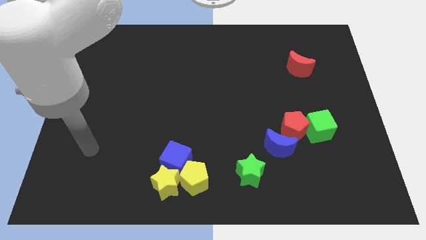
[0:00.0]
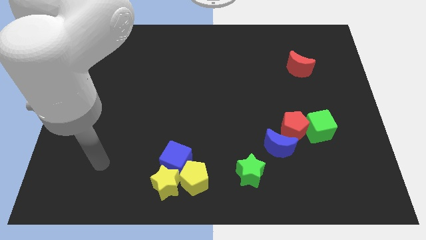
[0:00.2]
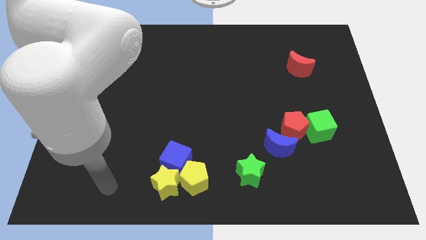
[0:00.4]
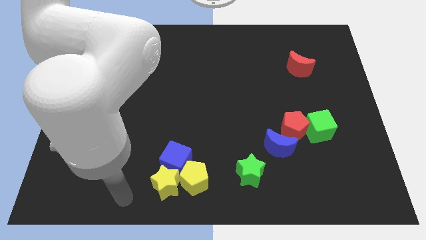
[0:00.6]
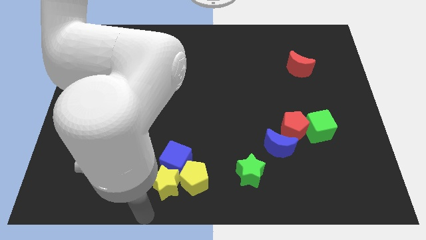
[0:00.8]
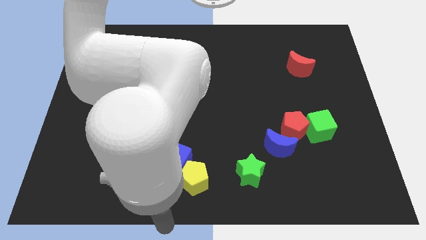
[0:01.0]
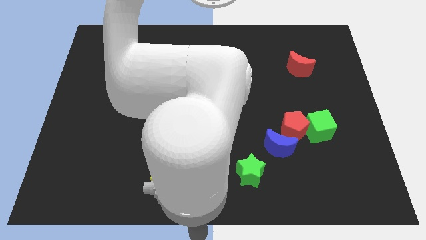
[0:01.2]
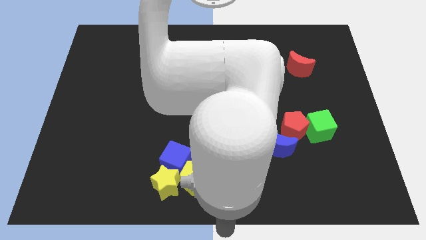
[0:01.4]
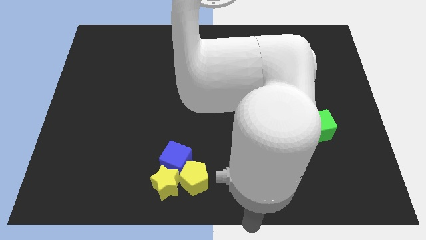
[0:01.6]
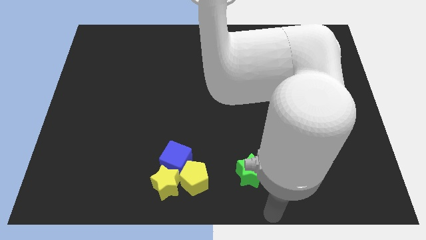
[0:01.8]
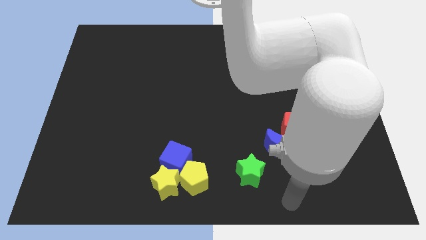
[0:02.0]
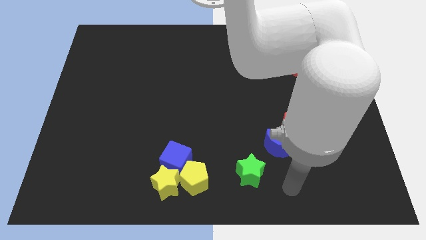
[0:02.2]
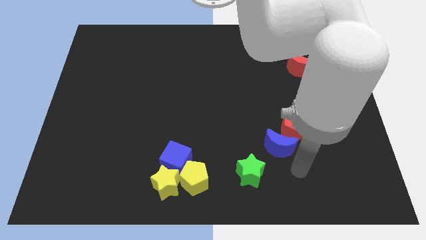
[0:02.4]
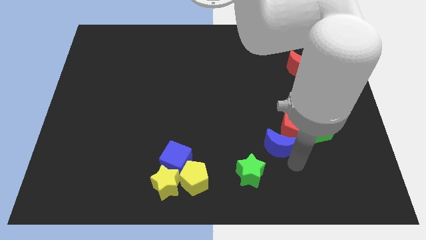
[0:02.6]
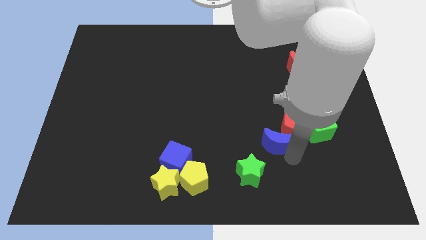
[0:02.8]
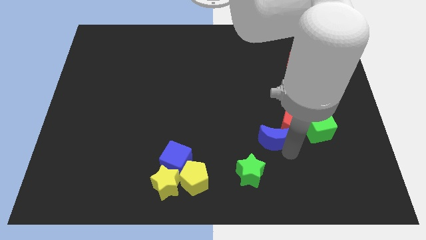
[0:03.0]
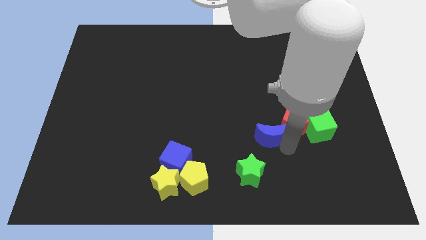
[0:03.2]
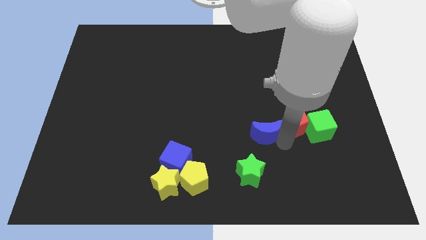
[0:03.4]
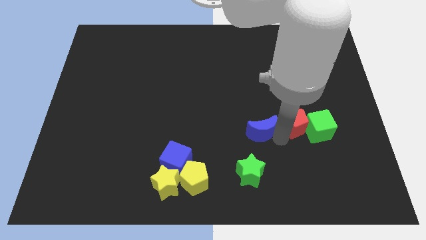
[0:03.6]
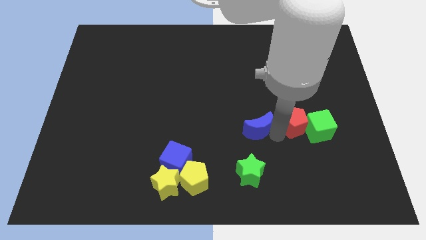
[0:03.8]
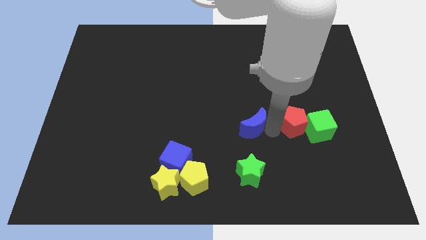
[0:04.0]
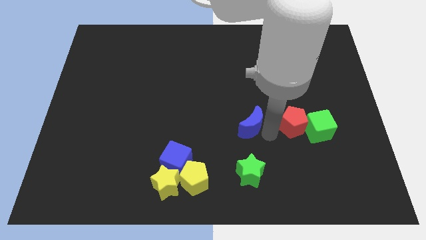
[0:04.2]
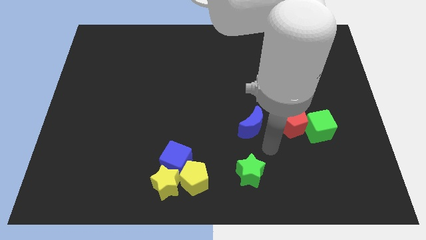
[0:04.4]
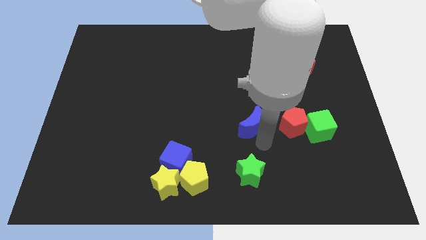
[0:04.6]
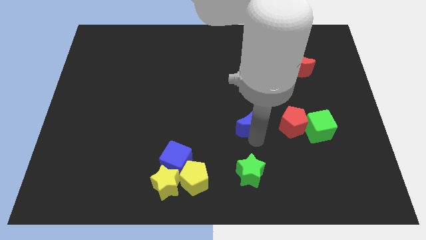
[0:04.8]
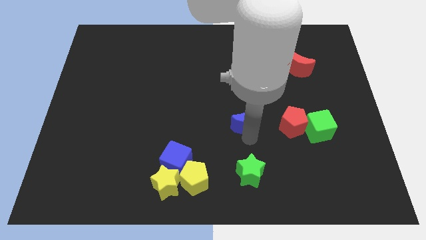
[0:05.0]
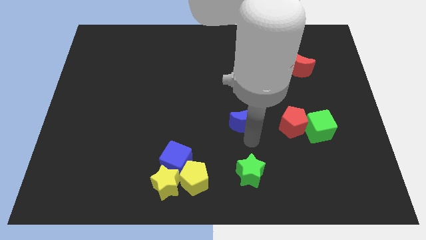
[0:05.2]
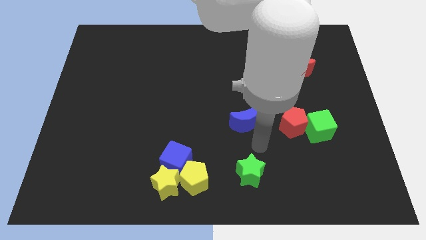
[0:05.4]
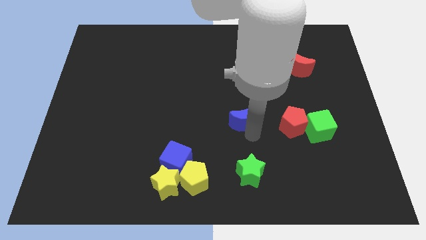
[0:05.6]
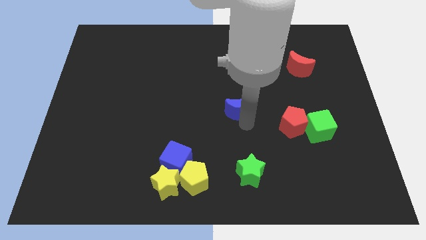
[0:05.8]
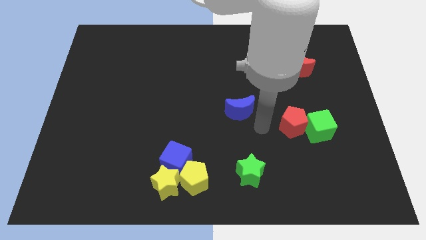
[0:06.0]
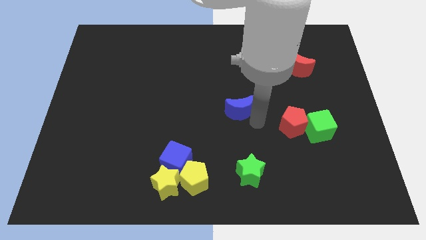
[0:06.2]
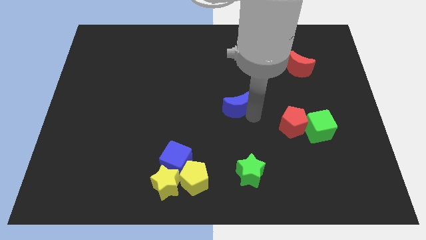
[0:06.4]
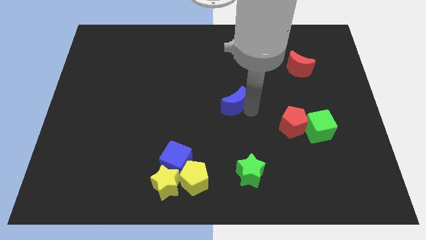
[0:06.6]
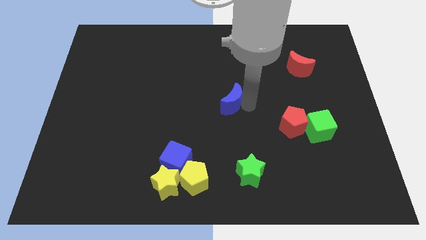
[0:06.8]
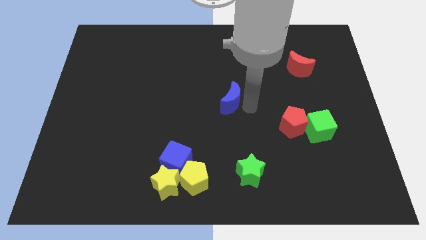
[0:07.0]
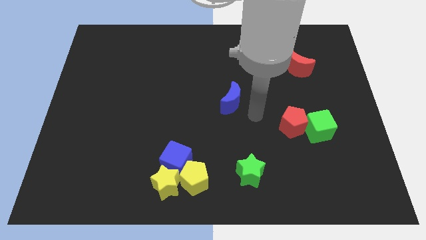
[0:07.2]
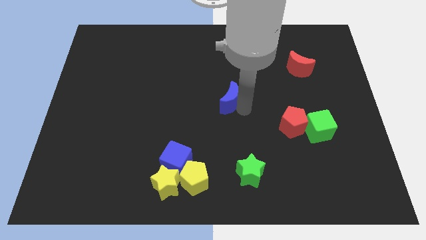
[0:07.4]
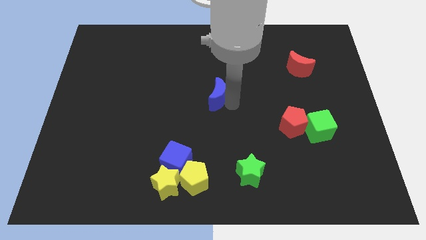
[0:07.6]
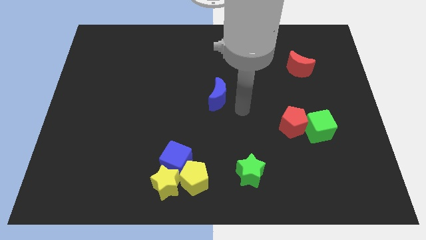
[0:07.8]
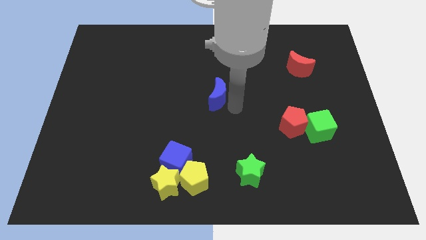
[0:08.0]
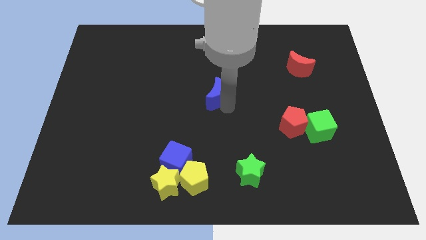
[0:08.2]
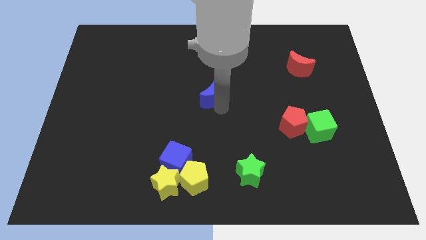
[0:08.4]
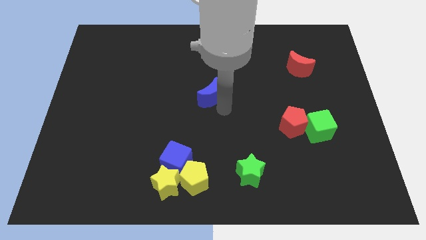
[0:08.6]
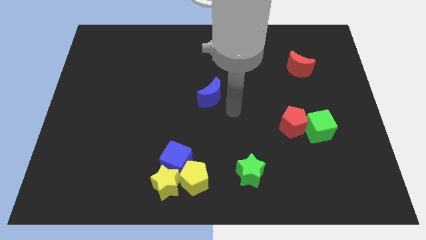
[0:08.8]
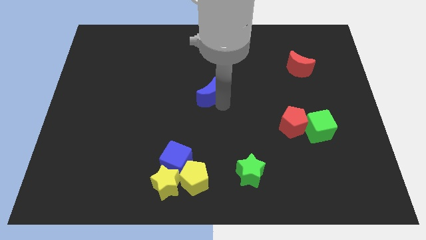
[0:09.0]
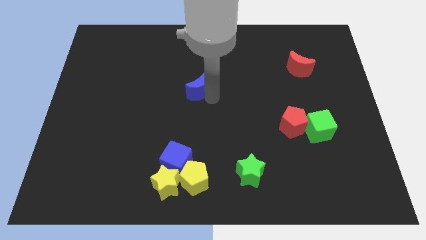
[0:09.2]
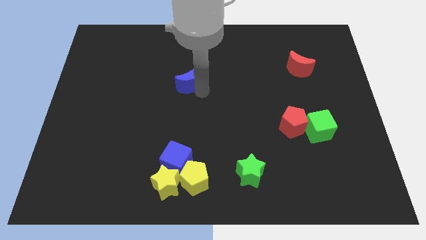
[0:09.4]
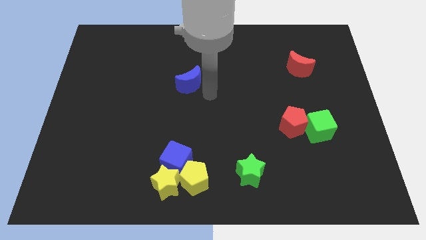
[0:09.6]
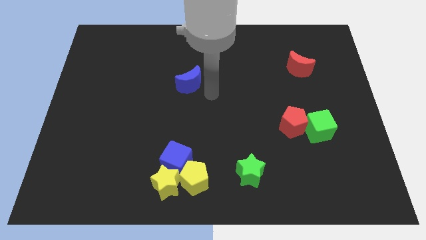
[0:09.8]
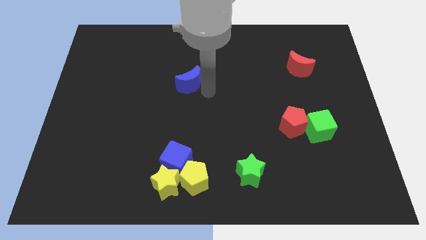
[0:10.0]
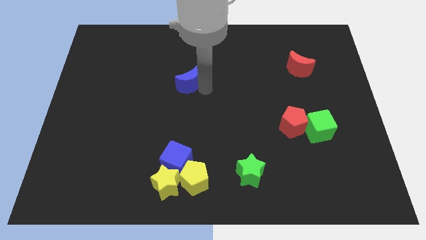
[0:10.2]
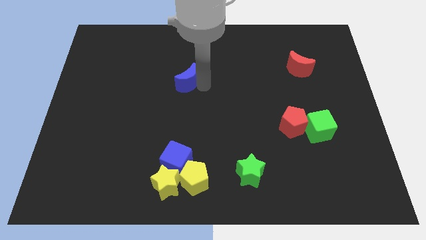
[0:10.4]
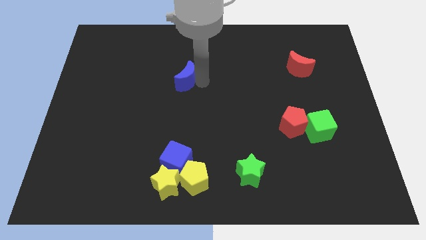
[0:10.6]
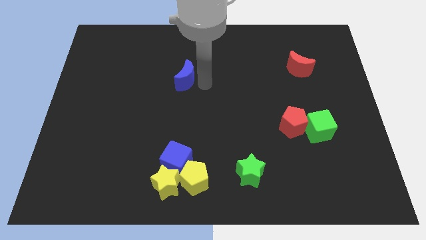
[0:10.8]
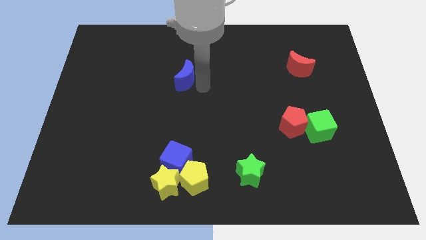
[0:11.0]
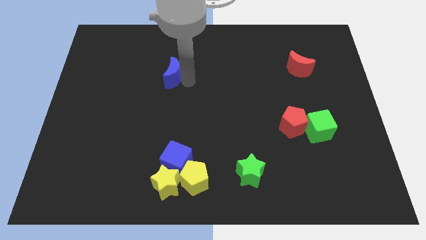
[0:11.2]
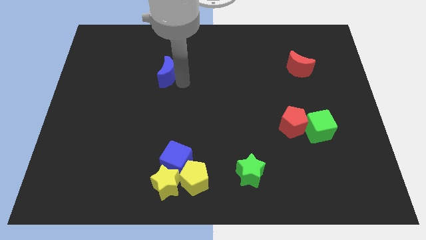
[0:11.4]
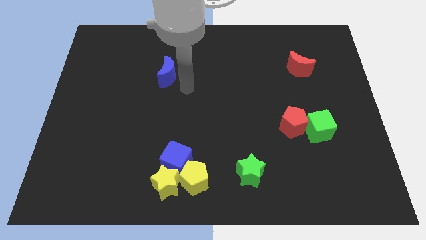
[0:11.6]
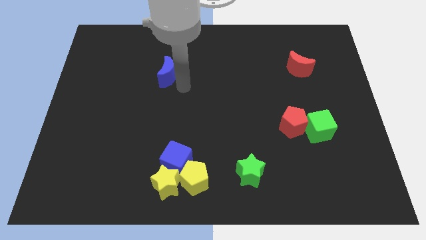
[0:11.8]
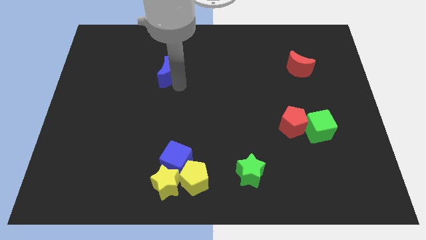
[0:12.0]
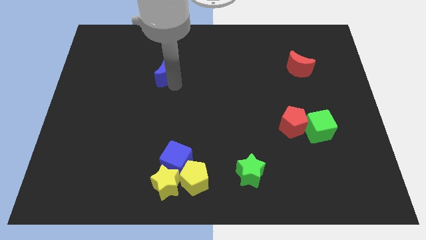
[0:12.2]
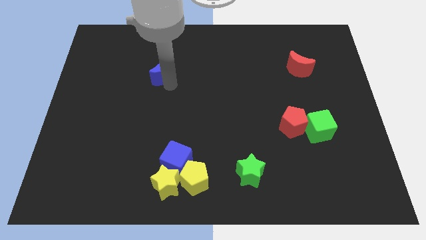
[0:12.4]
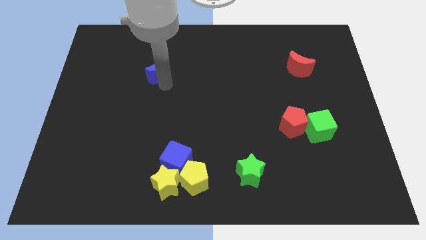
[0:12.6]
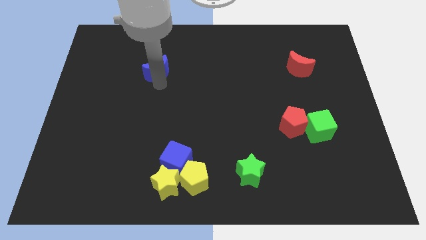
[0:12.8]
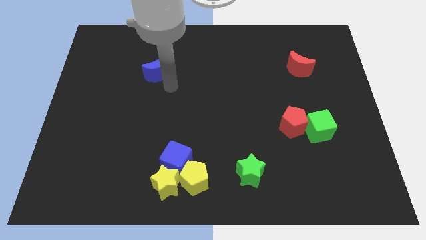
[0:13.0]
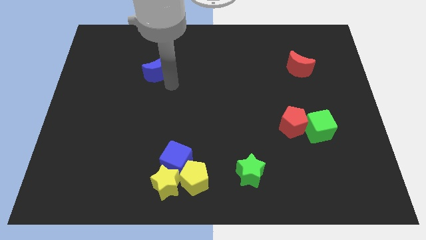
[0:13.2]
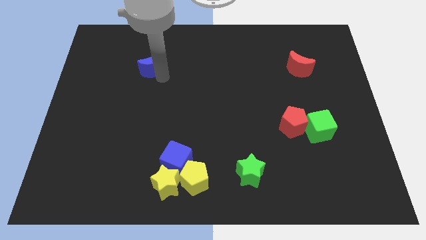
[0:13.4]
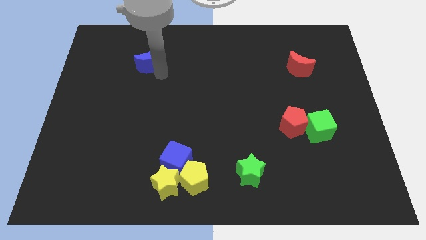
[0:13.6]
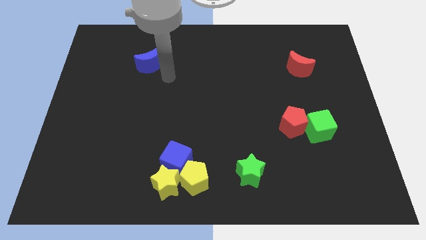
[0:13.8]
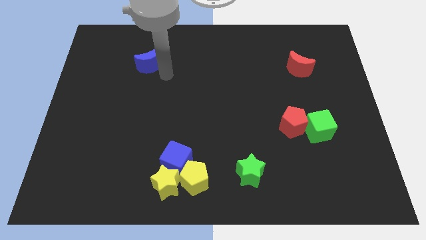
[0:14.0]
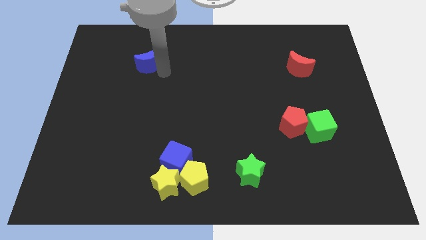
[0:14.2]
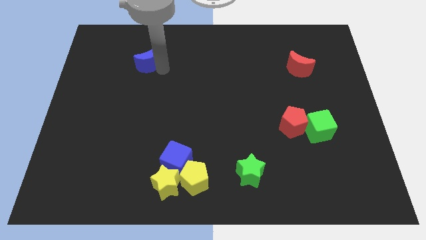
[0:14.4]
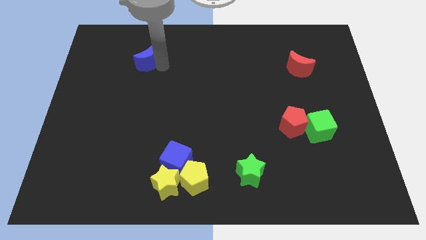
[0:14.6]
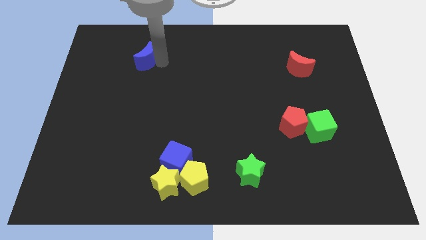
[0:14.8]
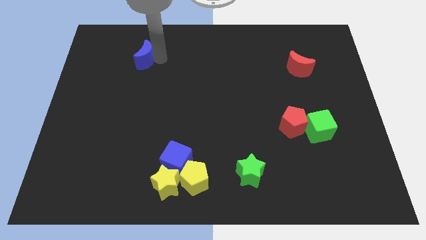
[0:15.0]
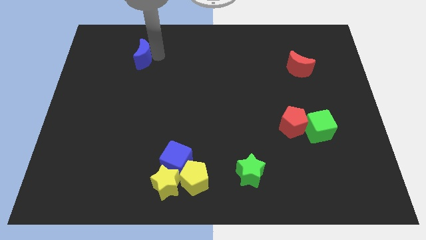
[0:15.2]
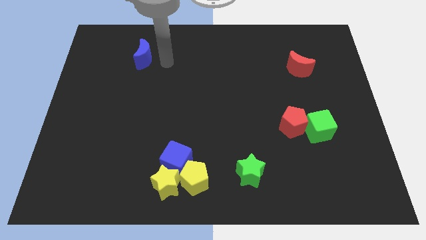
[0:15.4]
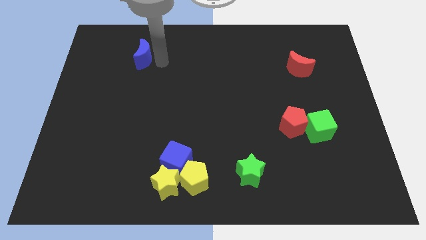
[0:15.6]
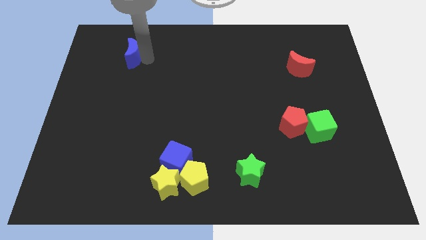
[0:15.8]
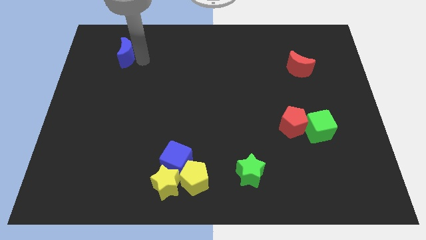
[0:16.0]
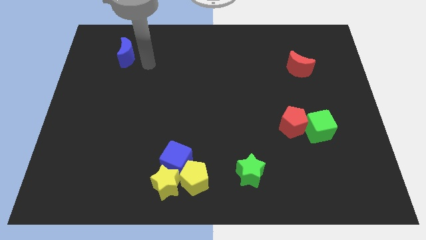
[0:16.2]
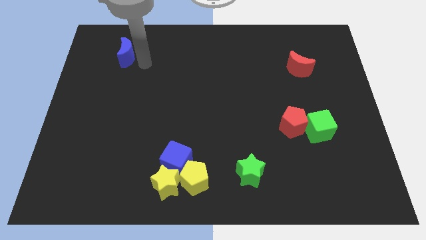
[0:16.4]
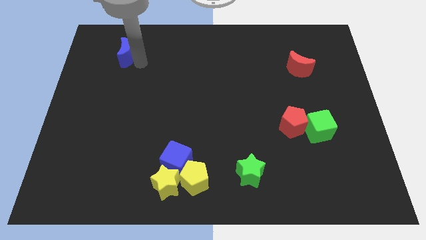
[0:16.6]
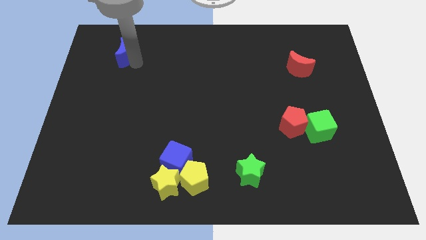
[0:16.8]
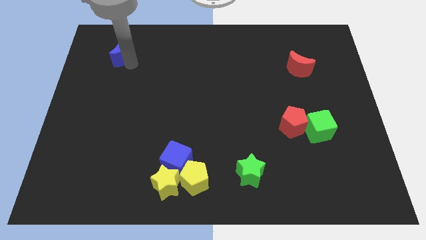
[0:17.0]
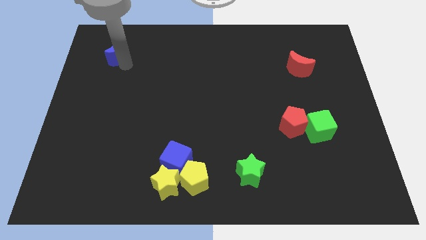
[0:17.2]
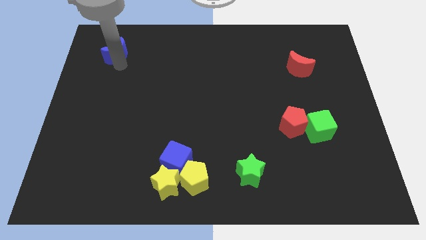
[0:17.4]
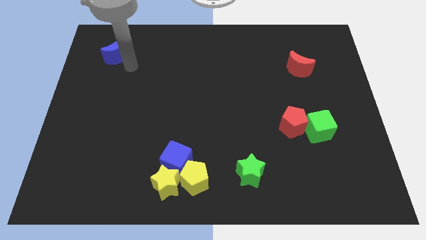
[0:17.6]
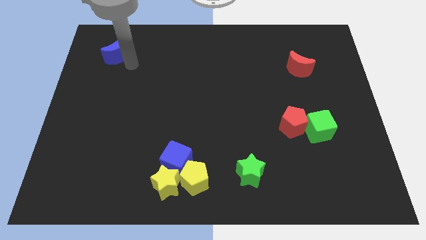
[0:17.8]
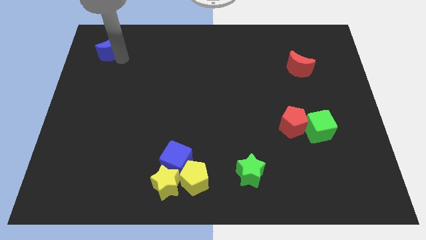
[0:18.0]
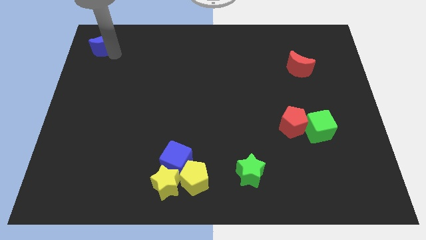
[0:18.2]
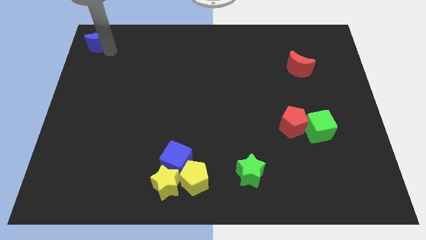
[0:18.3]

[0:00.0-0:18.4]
move the blue moon to the top left
